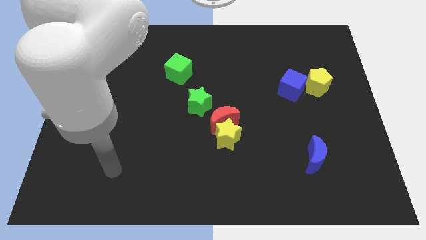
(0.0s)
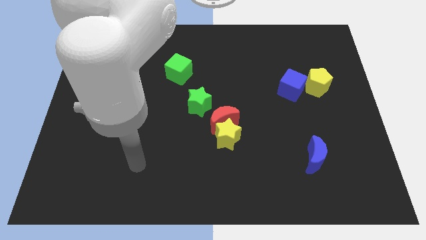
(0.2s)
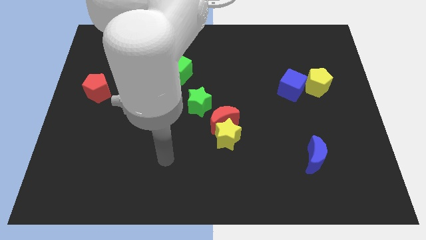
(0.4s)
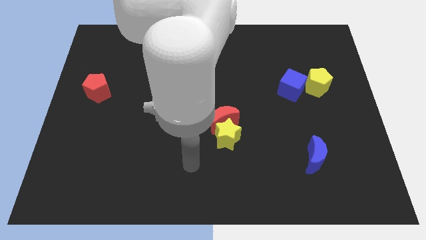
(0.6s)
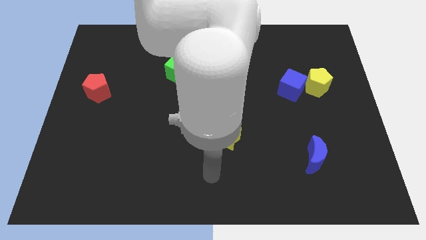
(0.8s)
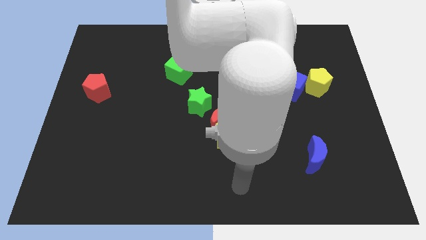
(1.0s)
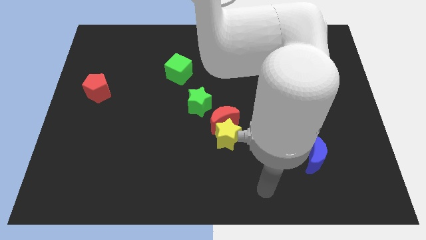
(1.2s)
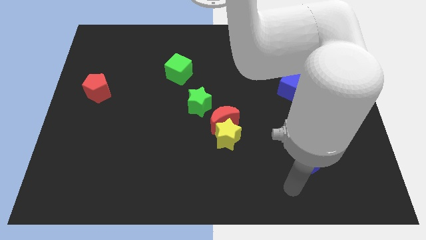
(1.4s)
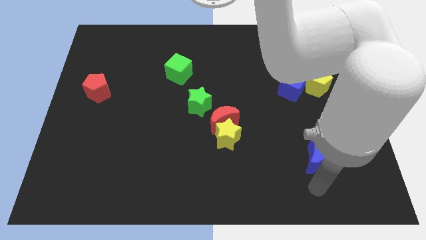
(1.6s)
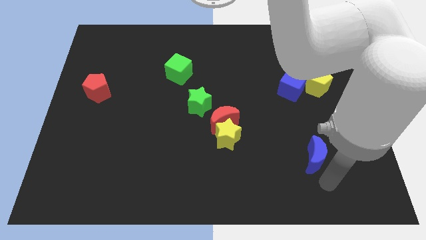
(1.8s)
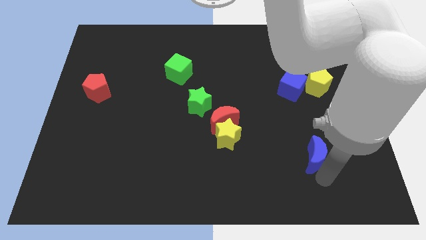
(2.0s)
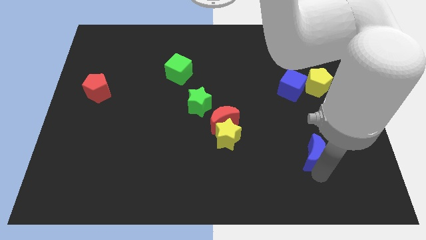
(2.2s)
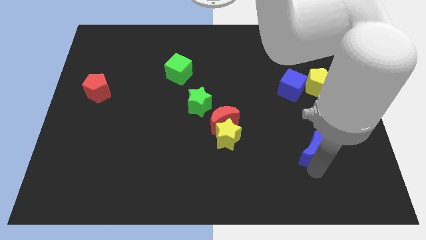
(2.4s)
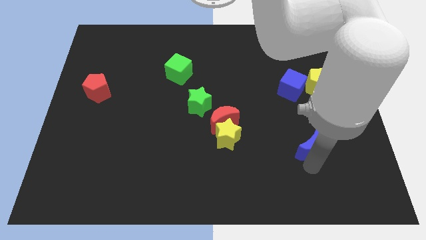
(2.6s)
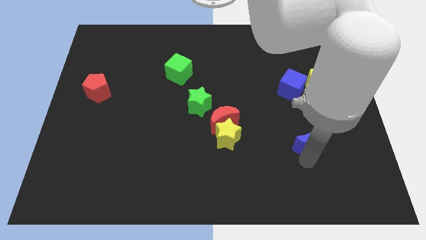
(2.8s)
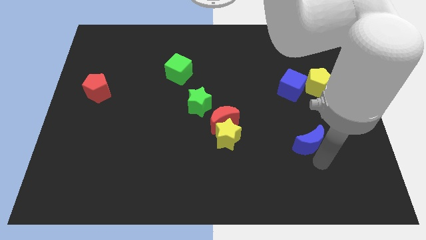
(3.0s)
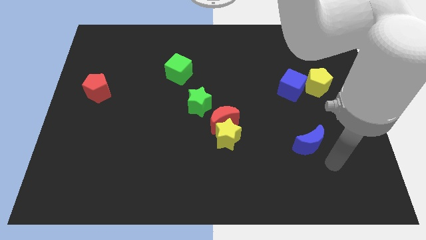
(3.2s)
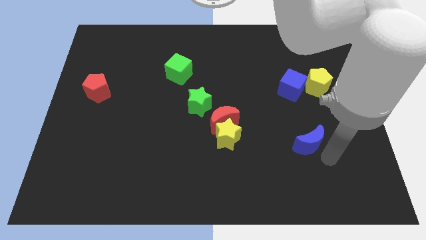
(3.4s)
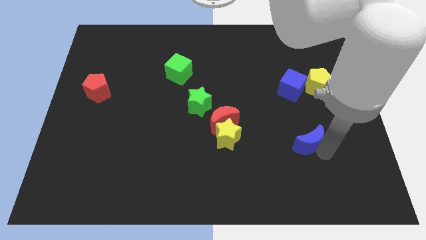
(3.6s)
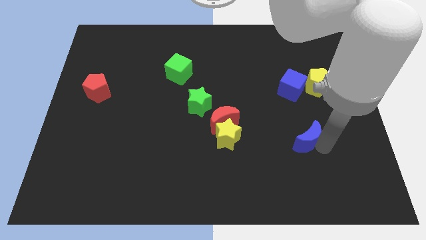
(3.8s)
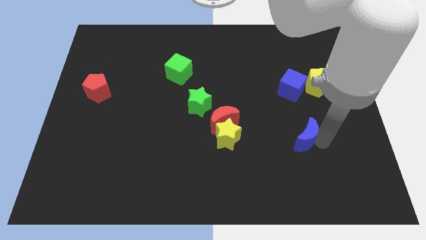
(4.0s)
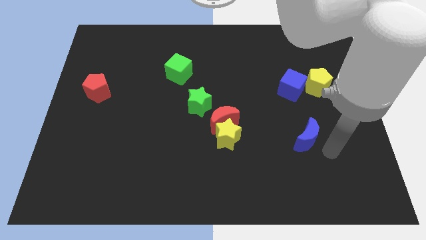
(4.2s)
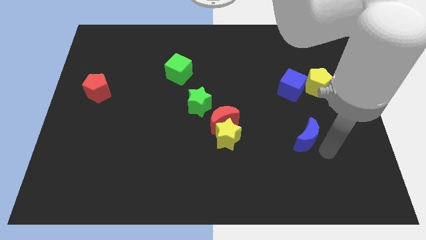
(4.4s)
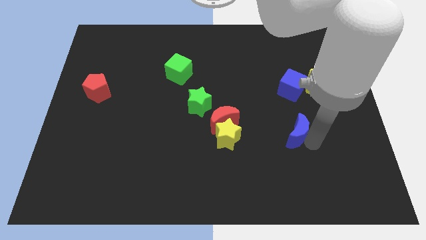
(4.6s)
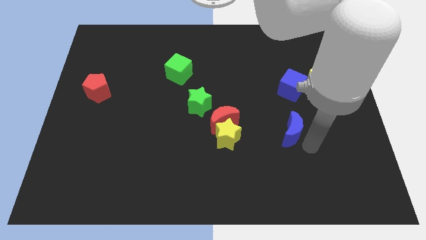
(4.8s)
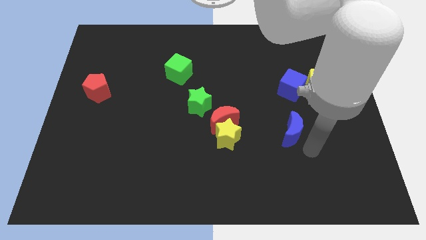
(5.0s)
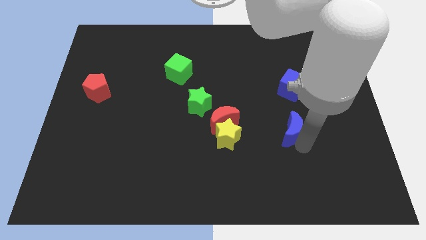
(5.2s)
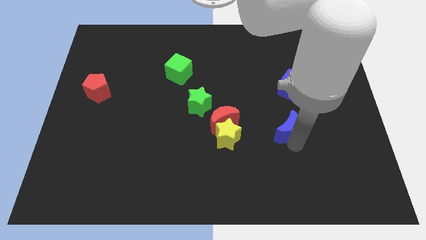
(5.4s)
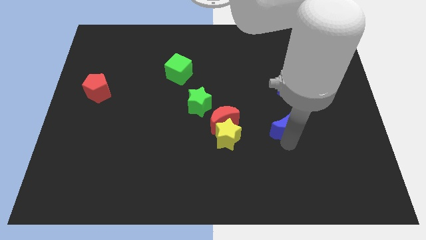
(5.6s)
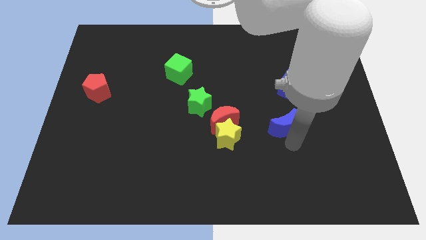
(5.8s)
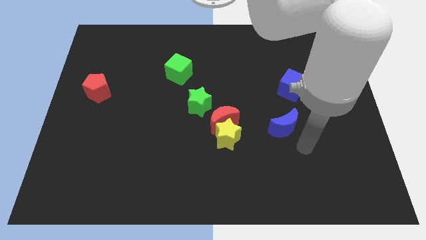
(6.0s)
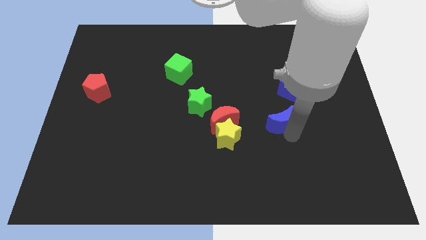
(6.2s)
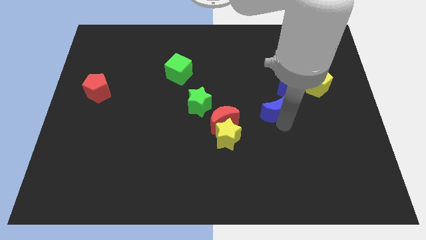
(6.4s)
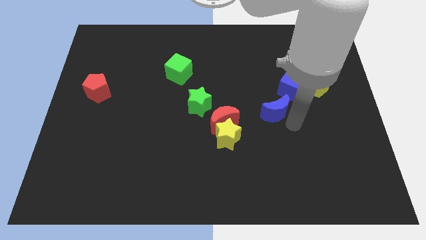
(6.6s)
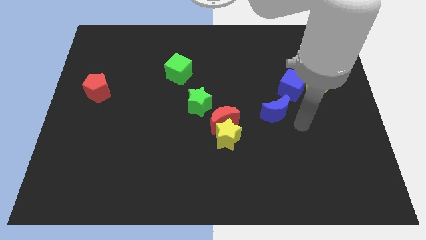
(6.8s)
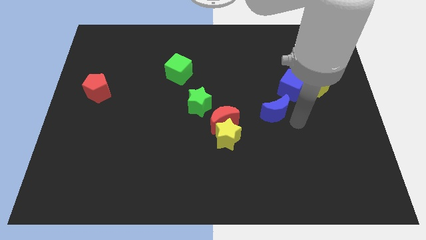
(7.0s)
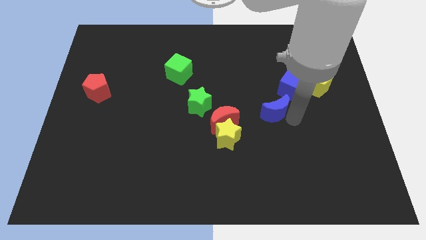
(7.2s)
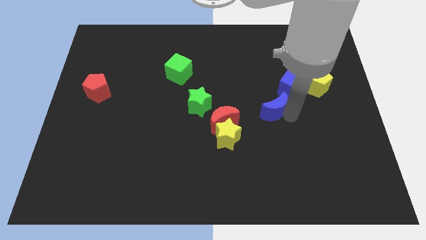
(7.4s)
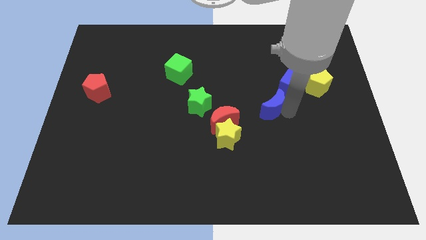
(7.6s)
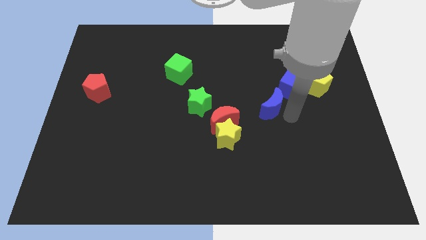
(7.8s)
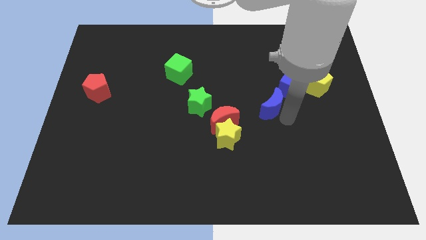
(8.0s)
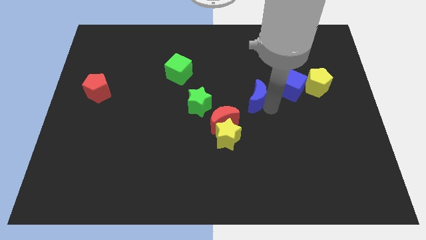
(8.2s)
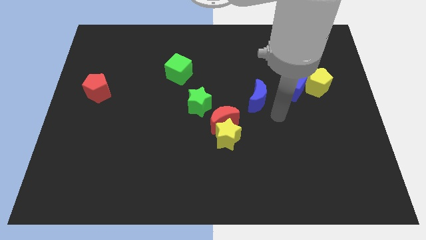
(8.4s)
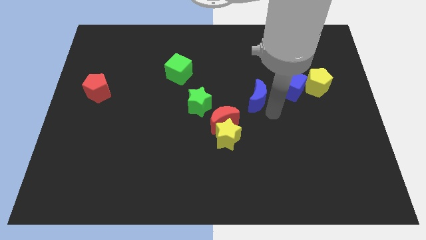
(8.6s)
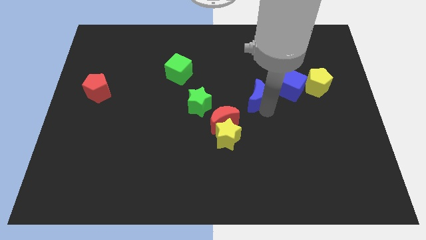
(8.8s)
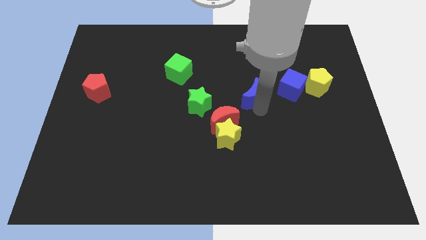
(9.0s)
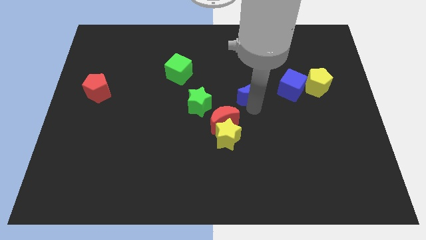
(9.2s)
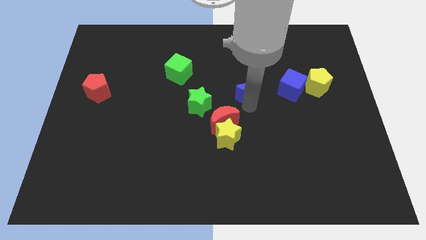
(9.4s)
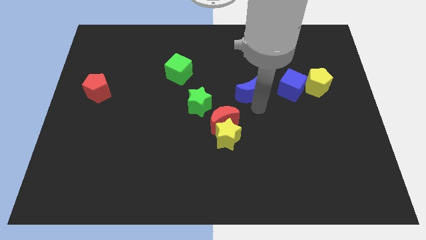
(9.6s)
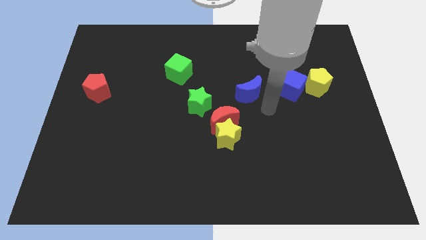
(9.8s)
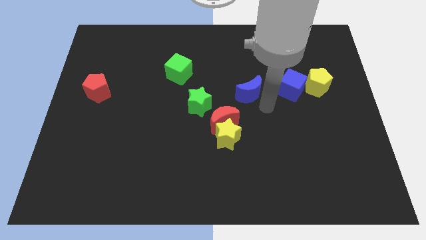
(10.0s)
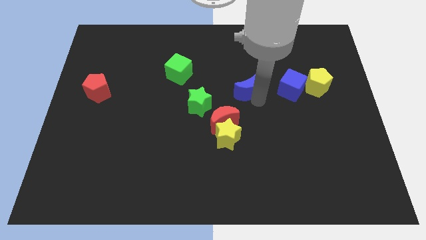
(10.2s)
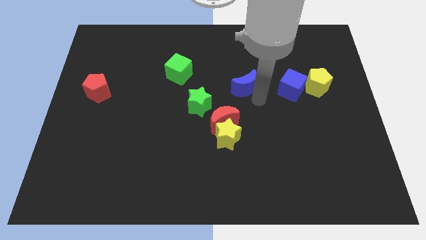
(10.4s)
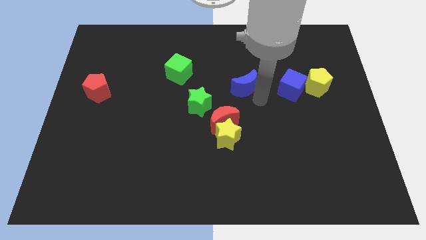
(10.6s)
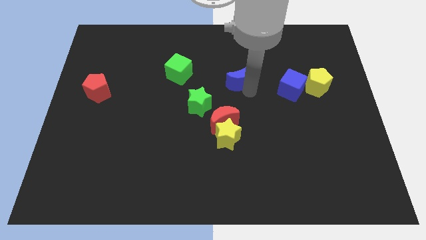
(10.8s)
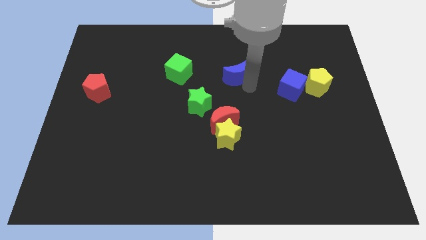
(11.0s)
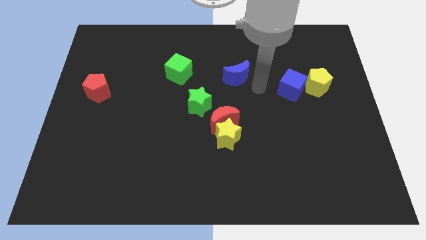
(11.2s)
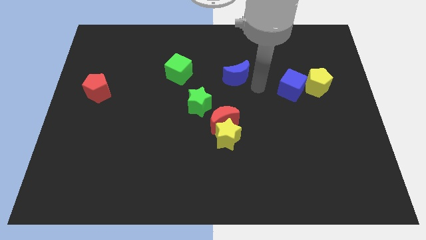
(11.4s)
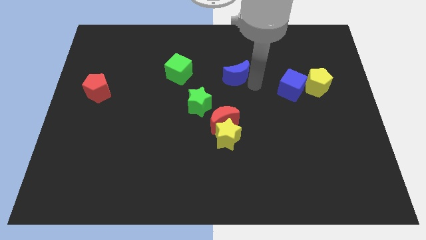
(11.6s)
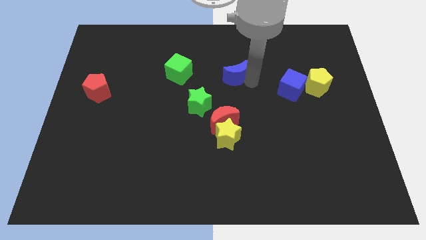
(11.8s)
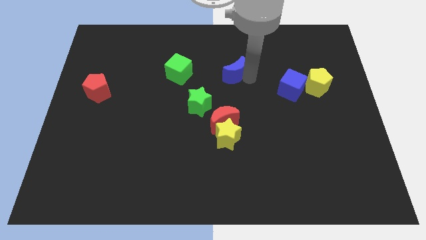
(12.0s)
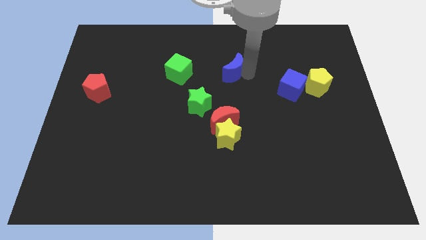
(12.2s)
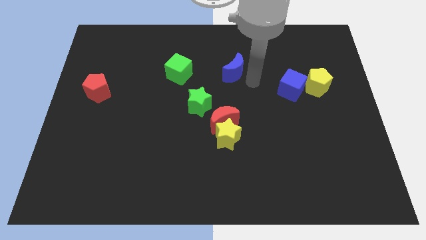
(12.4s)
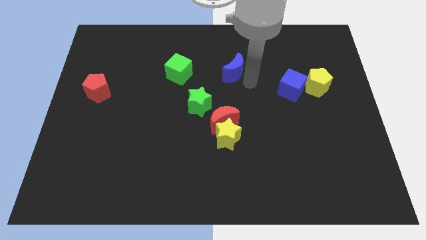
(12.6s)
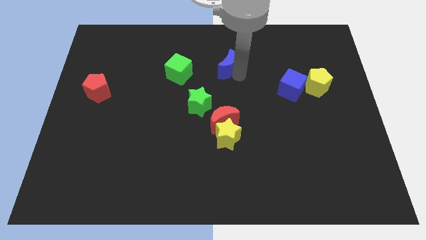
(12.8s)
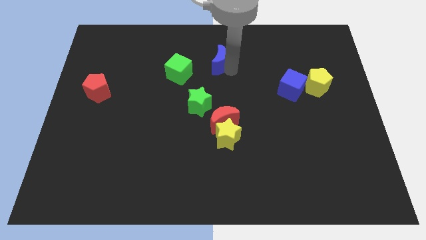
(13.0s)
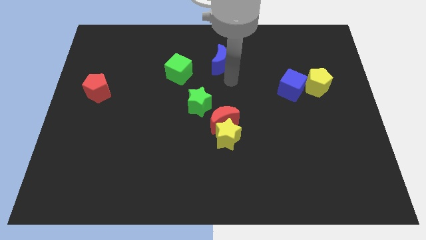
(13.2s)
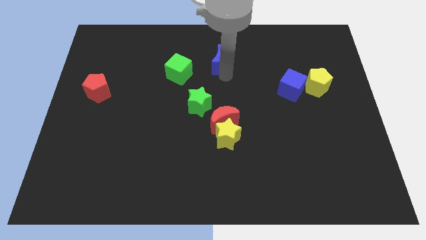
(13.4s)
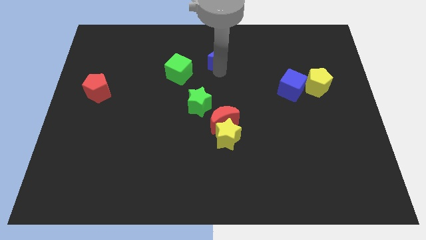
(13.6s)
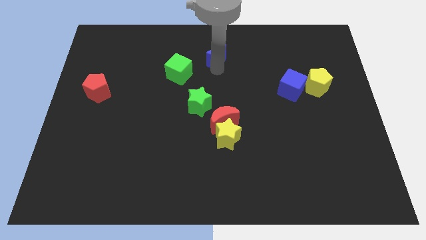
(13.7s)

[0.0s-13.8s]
slide the blue moon to the towards your base
